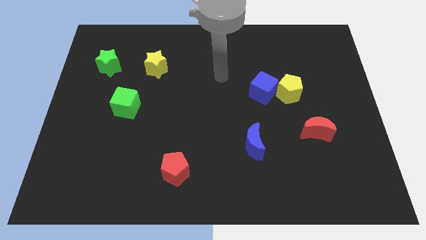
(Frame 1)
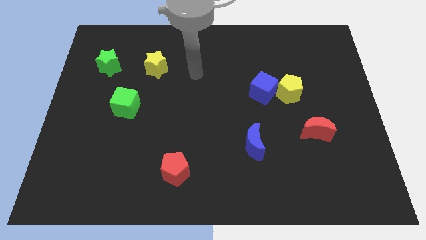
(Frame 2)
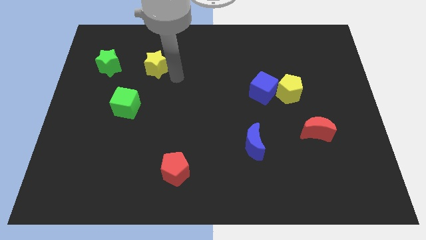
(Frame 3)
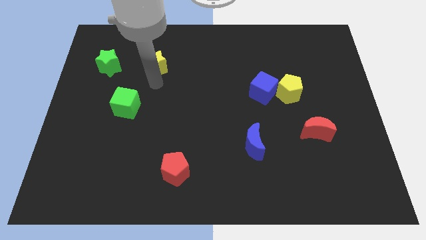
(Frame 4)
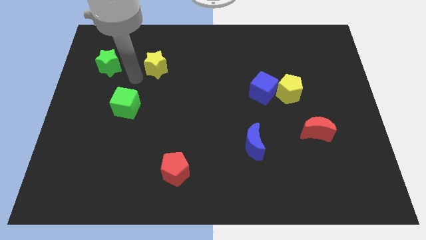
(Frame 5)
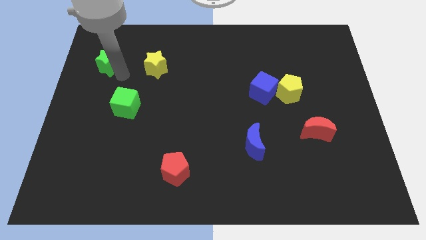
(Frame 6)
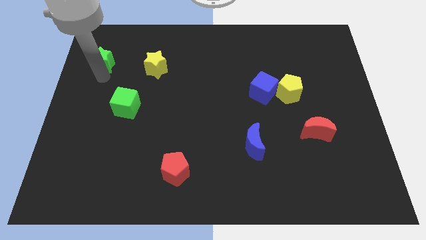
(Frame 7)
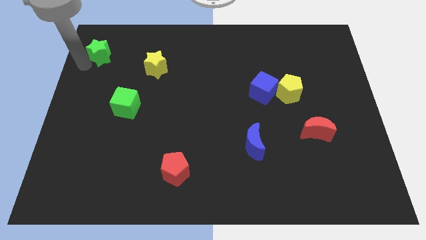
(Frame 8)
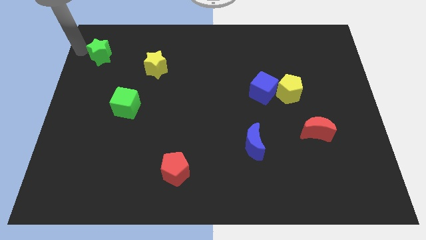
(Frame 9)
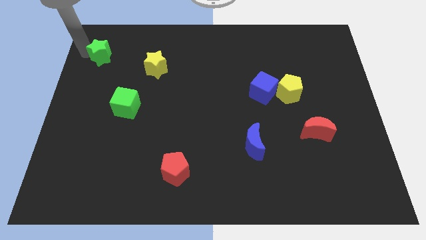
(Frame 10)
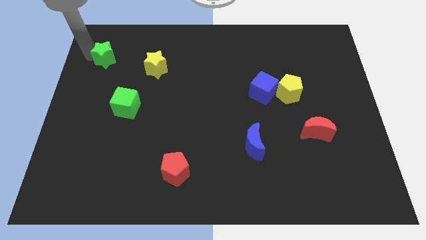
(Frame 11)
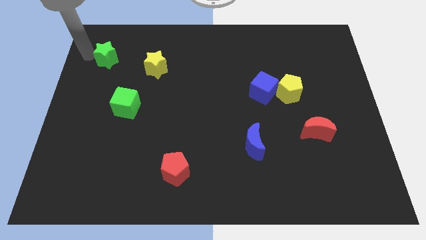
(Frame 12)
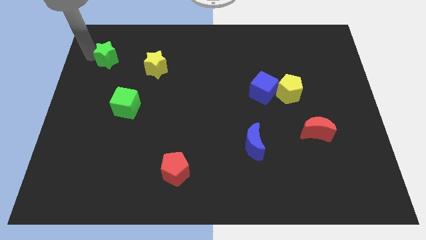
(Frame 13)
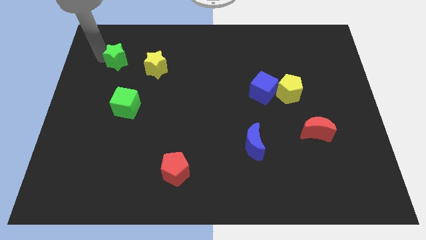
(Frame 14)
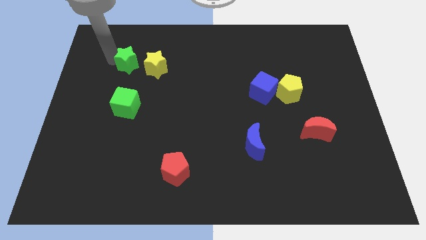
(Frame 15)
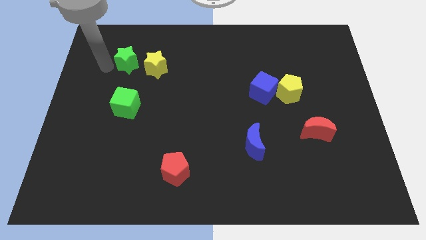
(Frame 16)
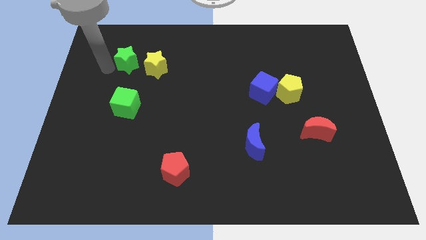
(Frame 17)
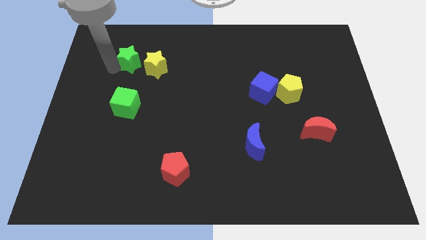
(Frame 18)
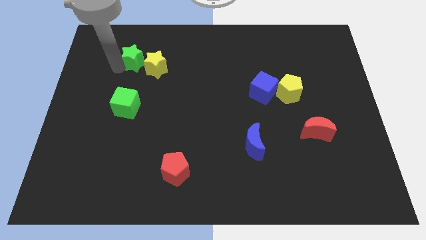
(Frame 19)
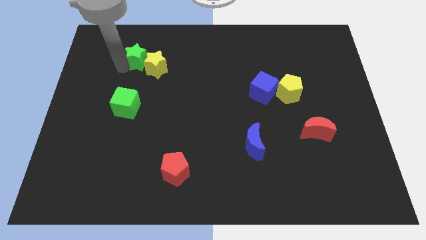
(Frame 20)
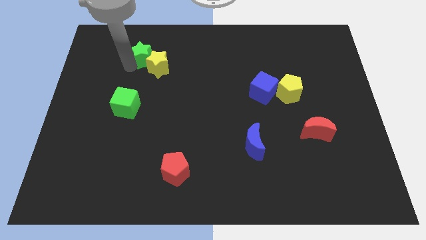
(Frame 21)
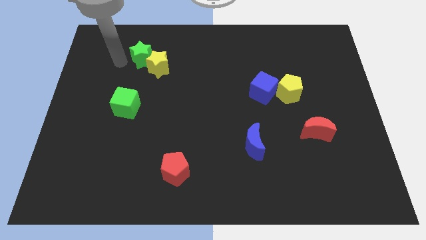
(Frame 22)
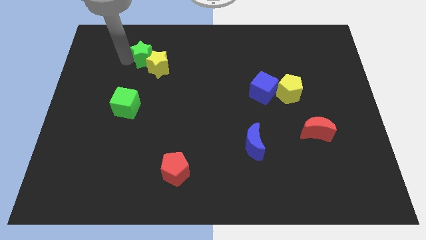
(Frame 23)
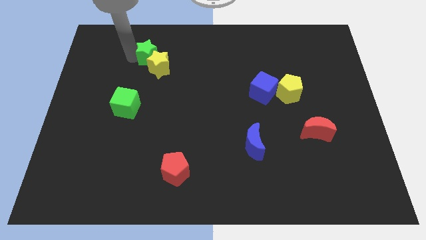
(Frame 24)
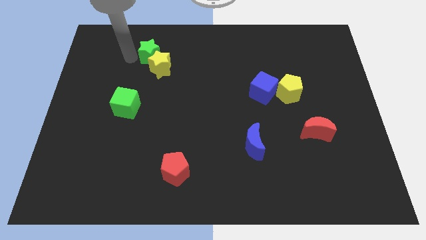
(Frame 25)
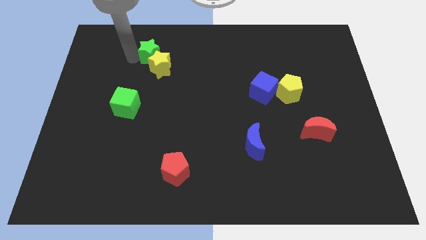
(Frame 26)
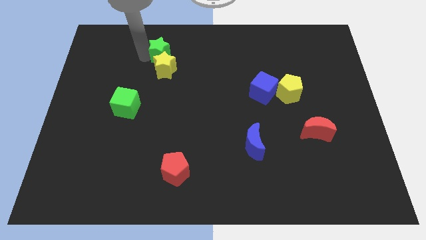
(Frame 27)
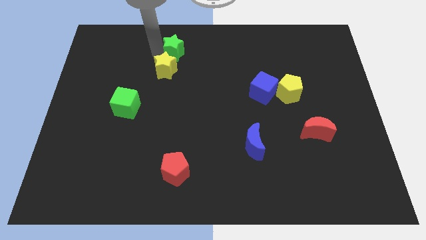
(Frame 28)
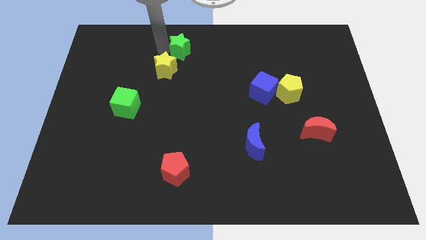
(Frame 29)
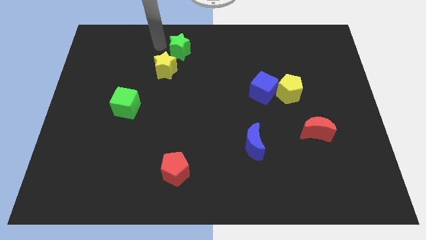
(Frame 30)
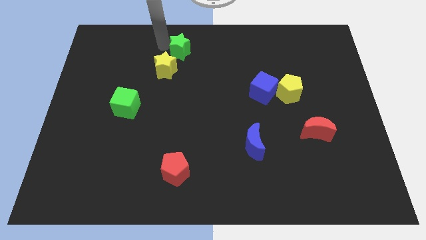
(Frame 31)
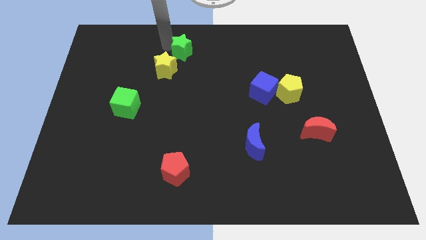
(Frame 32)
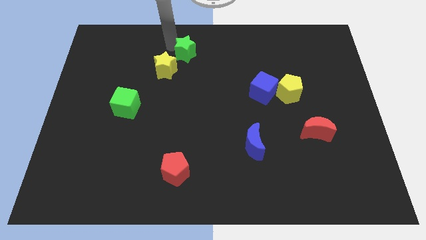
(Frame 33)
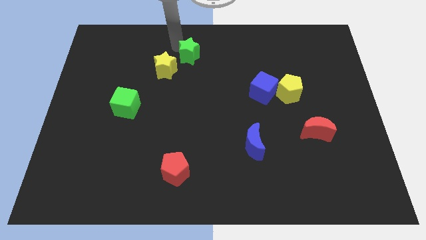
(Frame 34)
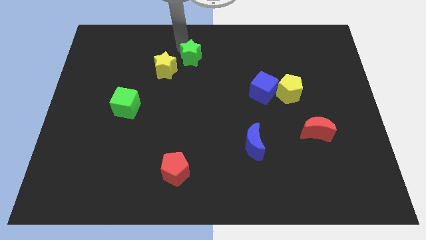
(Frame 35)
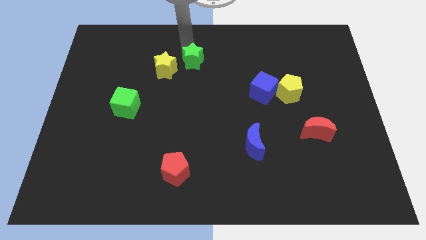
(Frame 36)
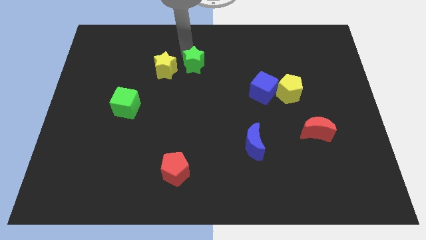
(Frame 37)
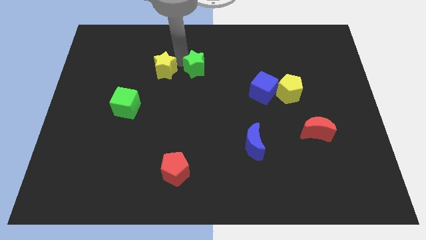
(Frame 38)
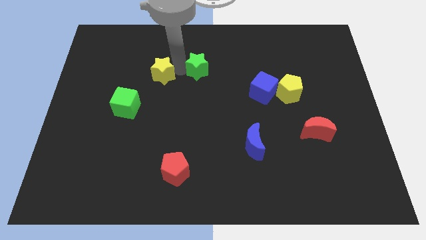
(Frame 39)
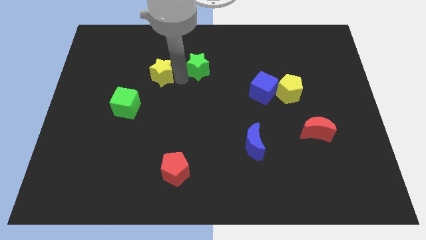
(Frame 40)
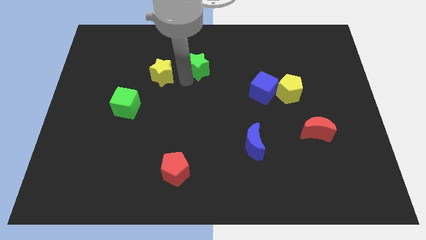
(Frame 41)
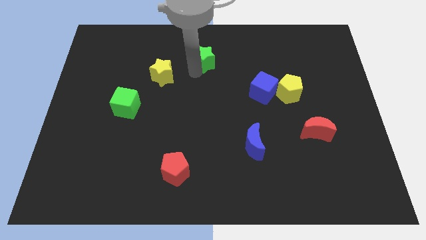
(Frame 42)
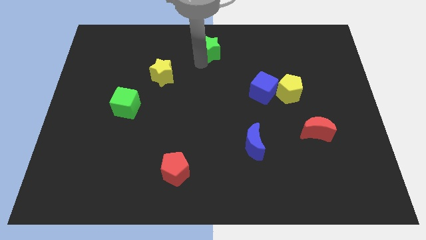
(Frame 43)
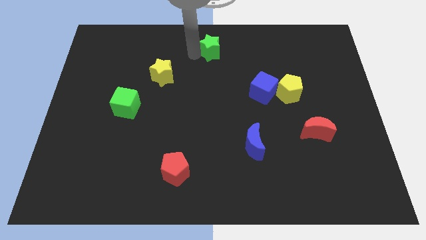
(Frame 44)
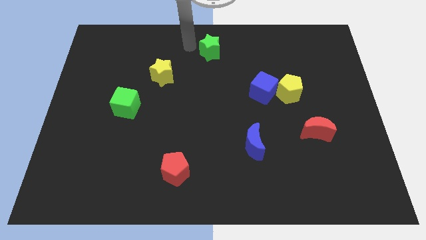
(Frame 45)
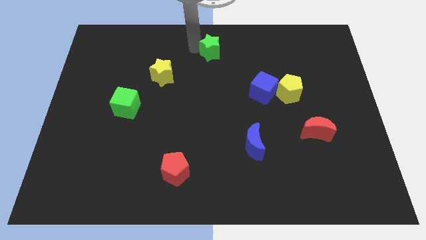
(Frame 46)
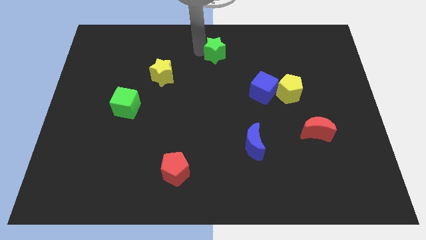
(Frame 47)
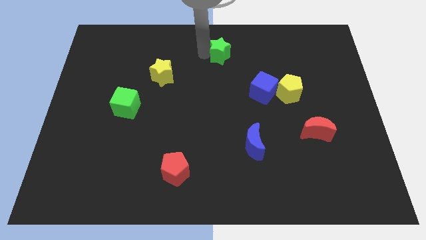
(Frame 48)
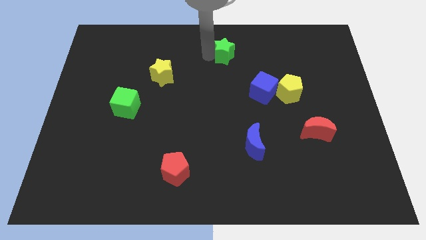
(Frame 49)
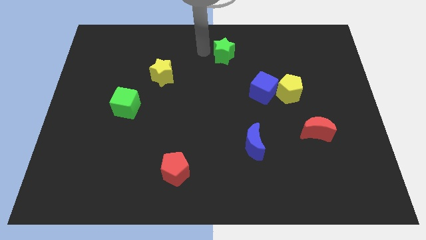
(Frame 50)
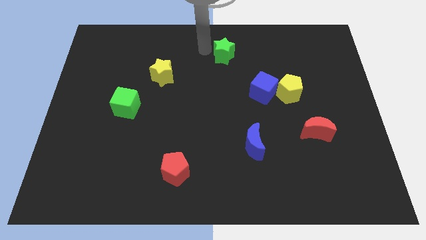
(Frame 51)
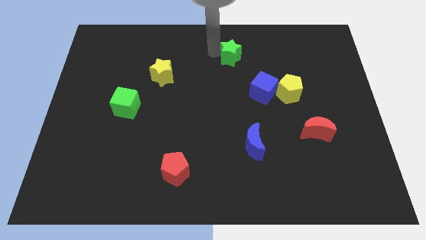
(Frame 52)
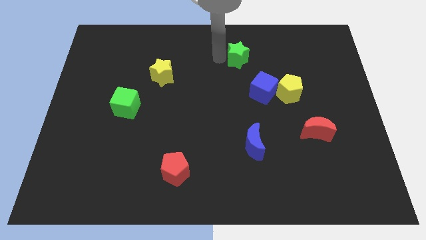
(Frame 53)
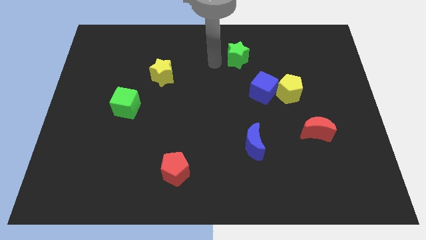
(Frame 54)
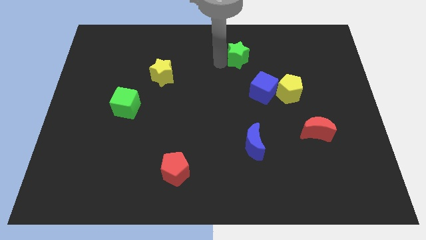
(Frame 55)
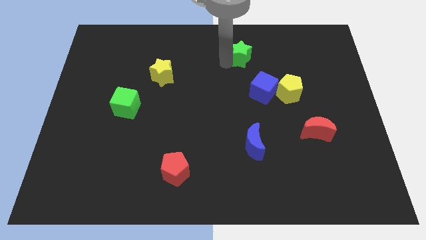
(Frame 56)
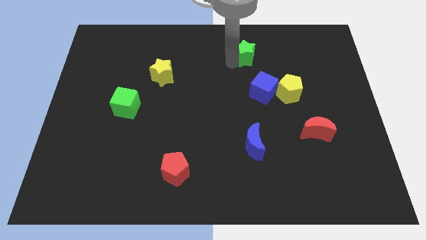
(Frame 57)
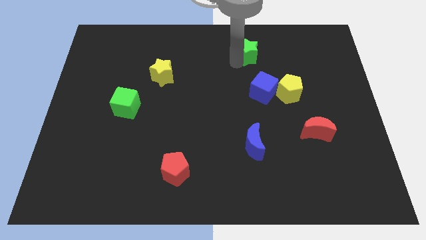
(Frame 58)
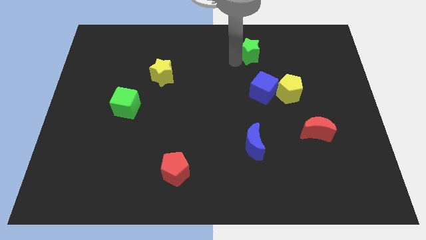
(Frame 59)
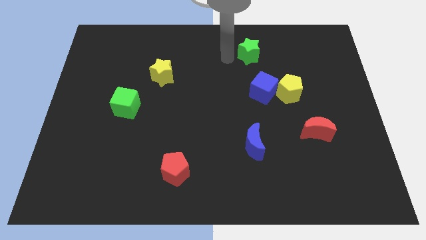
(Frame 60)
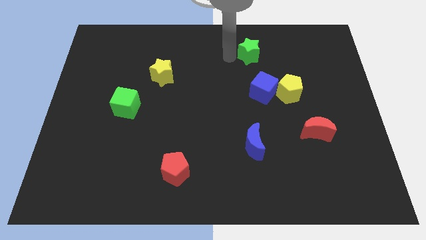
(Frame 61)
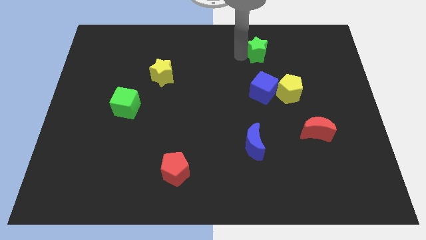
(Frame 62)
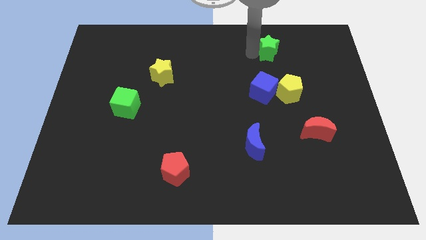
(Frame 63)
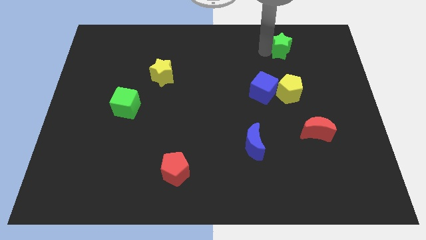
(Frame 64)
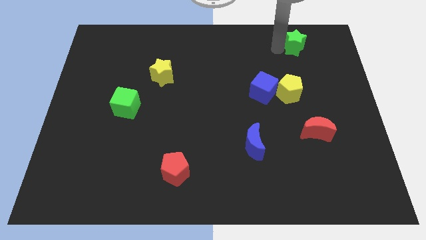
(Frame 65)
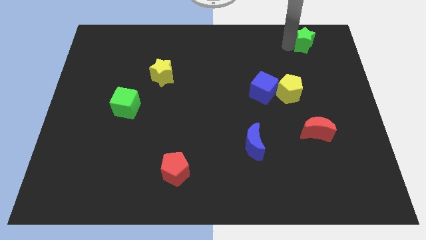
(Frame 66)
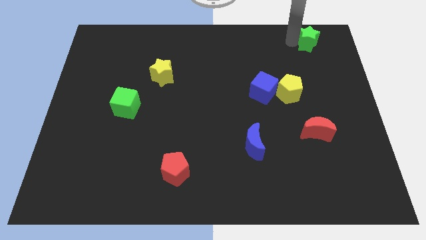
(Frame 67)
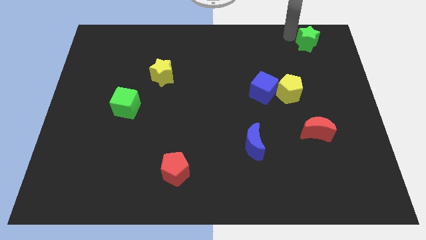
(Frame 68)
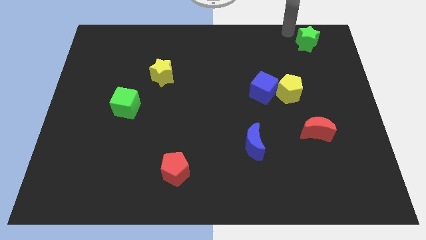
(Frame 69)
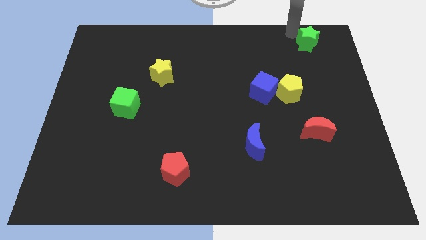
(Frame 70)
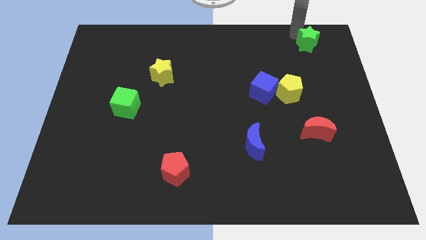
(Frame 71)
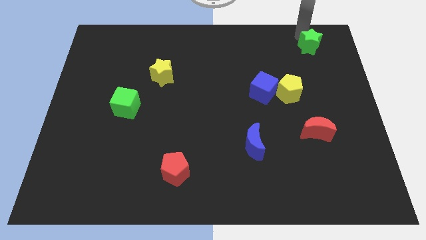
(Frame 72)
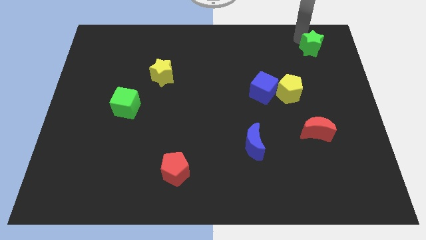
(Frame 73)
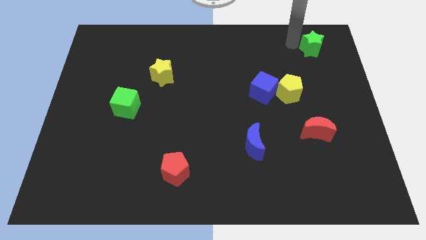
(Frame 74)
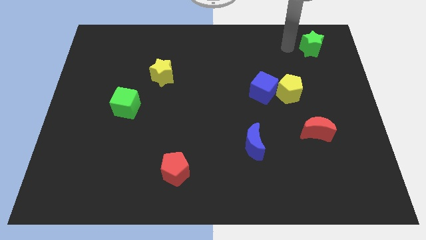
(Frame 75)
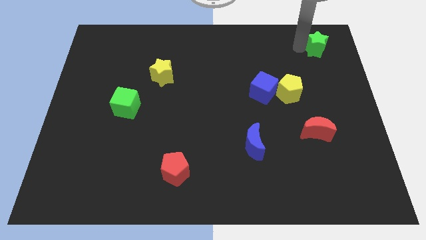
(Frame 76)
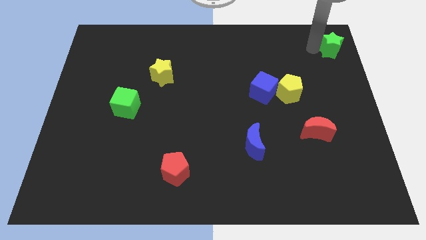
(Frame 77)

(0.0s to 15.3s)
put the green star to the top right
